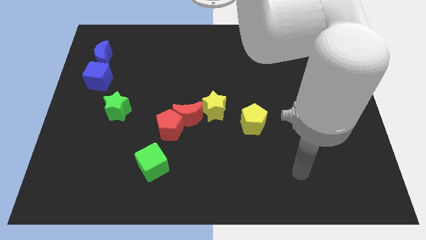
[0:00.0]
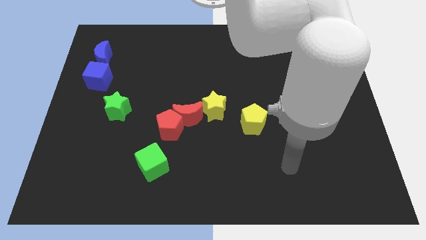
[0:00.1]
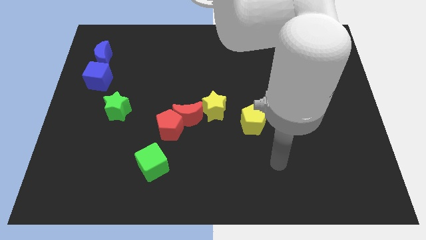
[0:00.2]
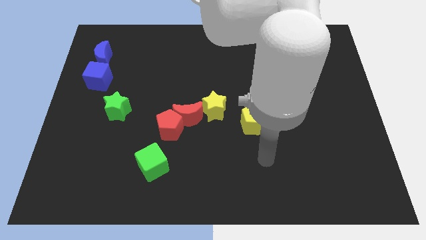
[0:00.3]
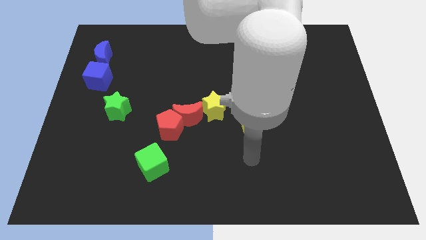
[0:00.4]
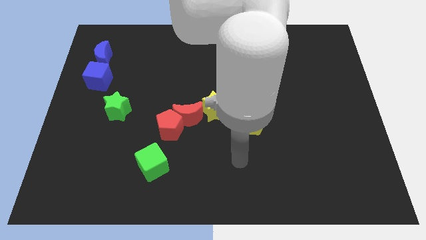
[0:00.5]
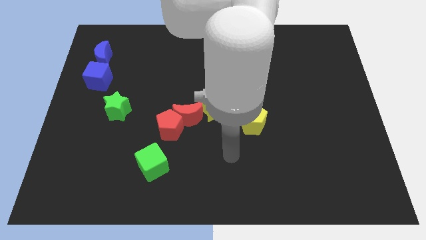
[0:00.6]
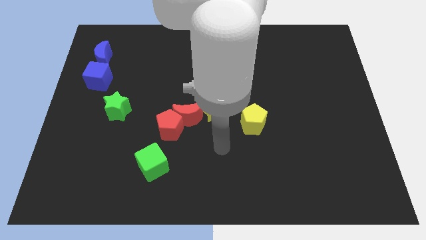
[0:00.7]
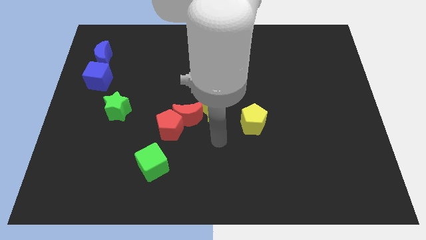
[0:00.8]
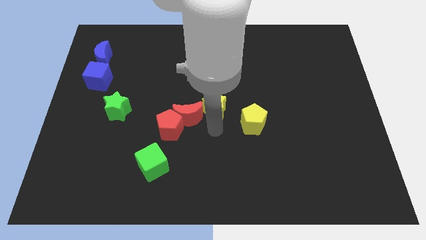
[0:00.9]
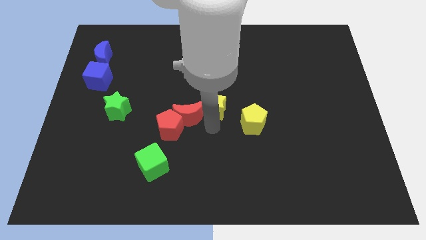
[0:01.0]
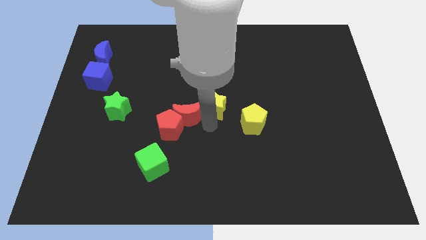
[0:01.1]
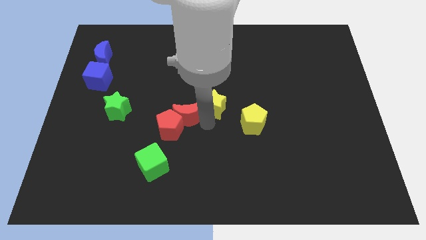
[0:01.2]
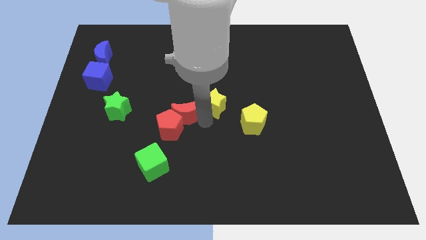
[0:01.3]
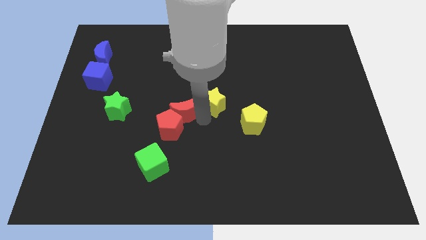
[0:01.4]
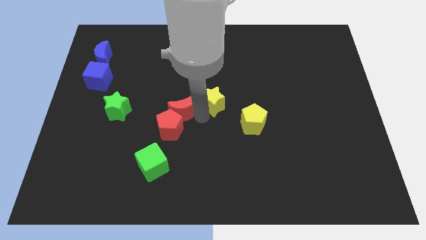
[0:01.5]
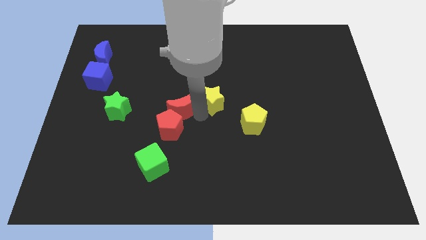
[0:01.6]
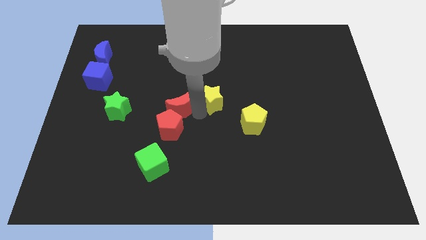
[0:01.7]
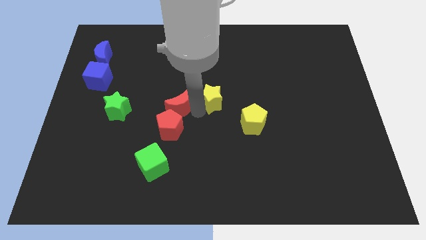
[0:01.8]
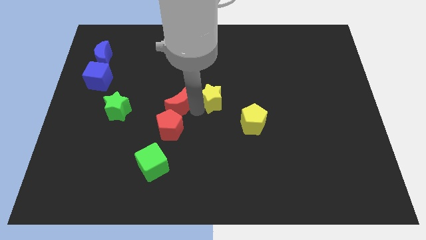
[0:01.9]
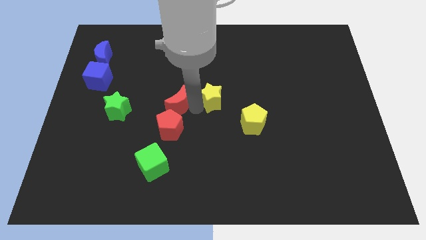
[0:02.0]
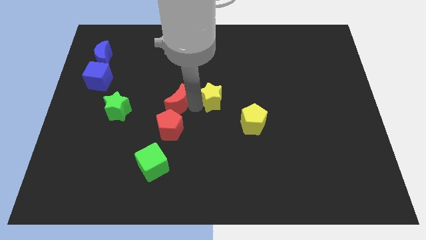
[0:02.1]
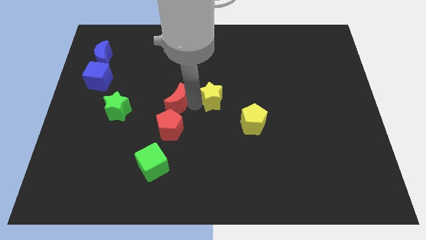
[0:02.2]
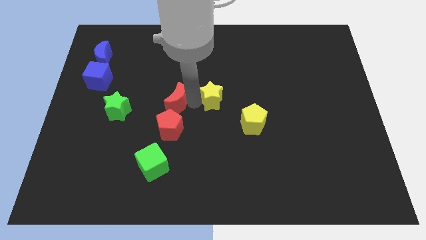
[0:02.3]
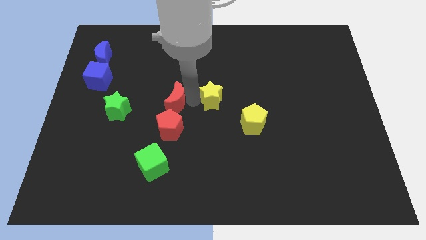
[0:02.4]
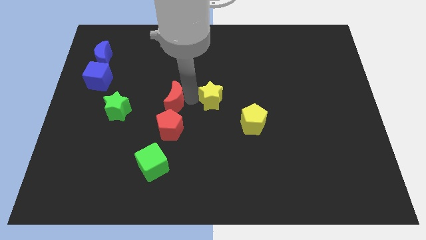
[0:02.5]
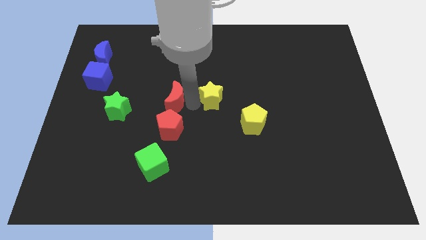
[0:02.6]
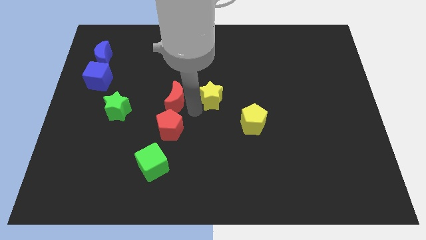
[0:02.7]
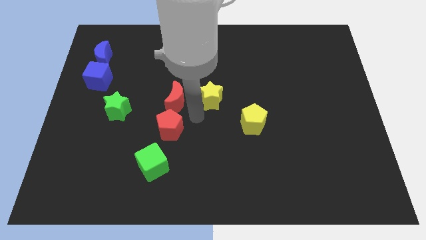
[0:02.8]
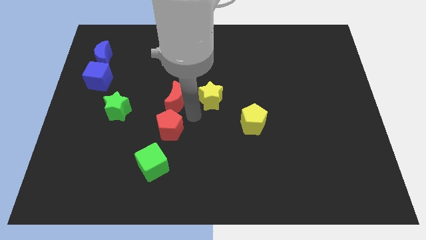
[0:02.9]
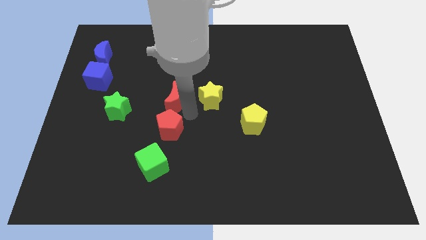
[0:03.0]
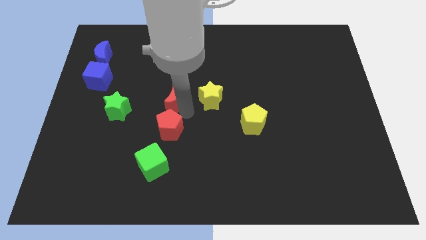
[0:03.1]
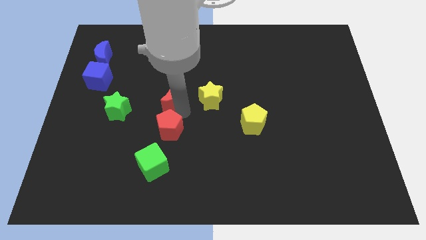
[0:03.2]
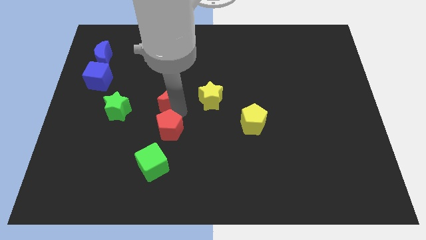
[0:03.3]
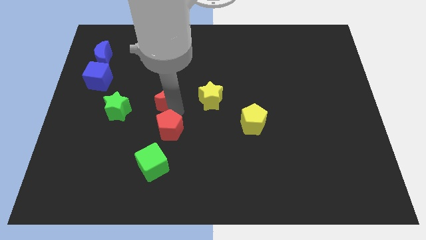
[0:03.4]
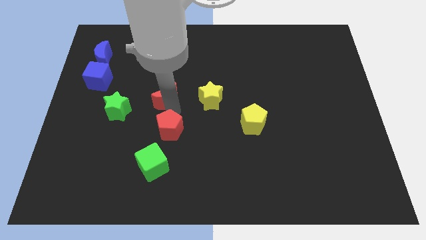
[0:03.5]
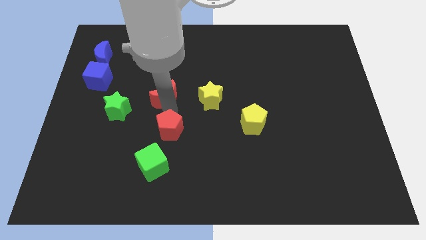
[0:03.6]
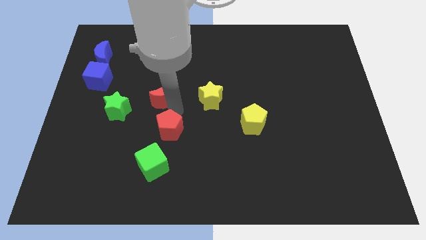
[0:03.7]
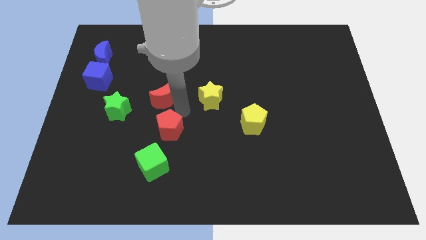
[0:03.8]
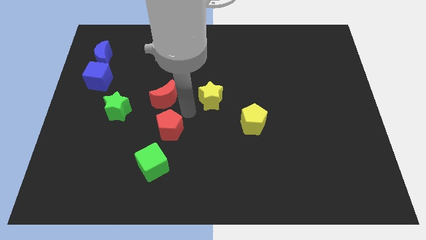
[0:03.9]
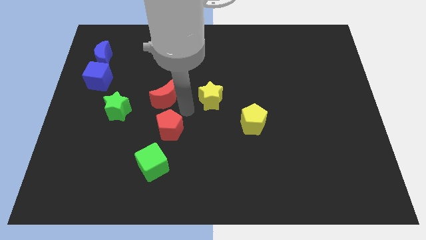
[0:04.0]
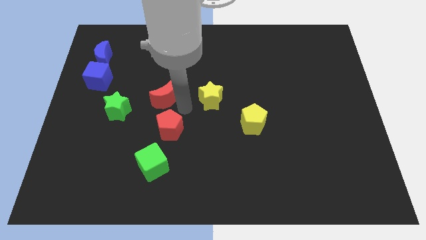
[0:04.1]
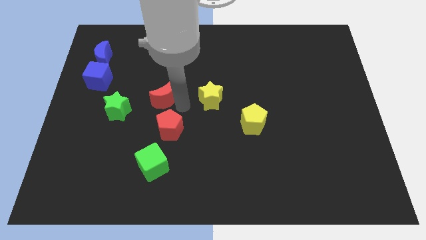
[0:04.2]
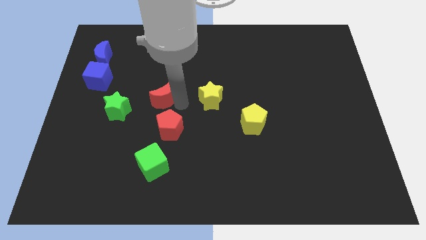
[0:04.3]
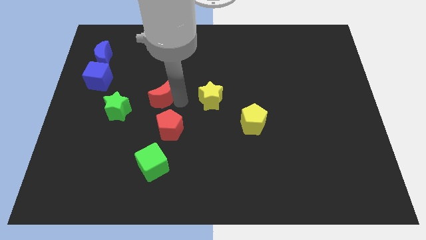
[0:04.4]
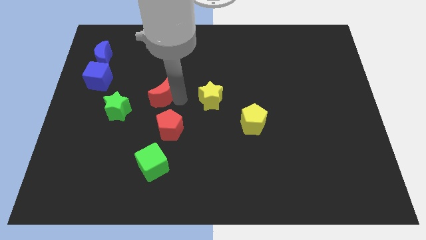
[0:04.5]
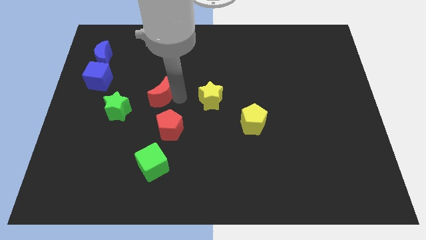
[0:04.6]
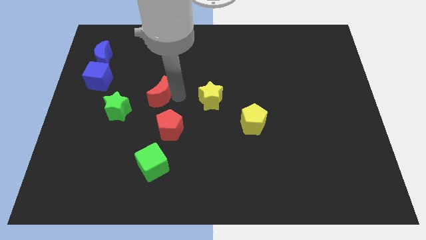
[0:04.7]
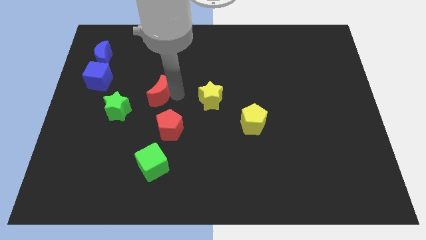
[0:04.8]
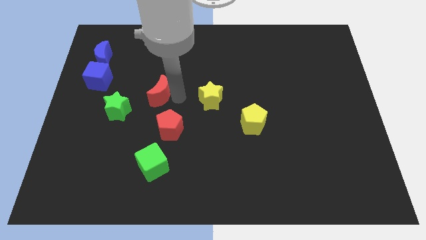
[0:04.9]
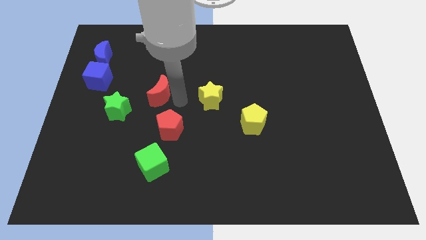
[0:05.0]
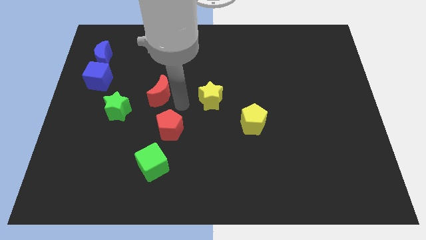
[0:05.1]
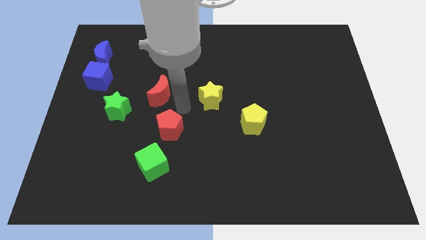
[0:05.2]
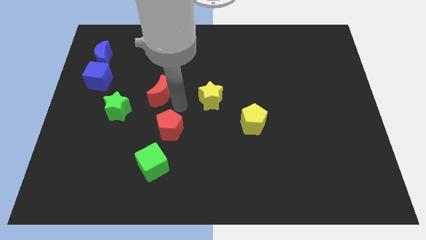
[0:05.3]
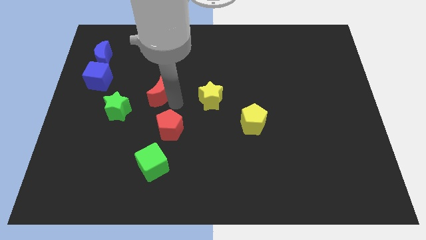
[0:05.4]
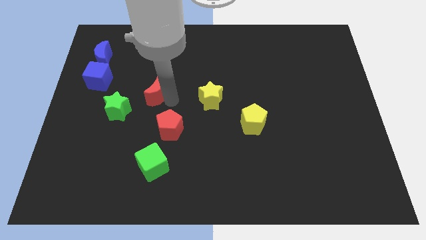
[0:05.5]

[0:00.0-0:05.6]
move the red moon away from the red pentagon and yellow star

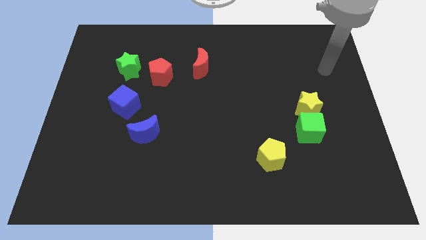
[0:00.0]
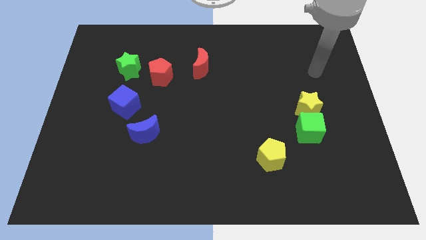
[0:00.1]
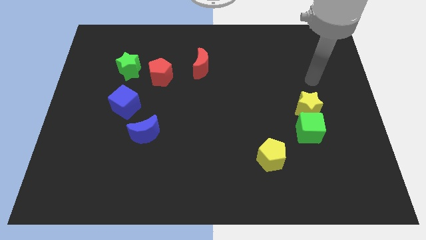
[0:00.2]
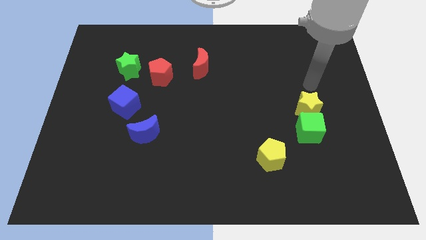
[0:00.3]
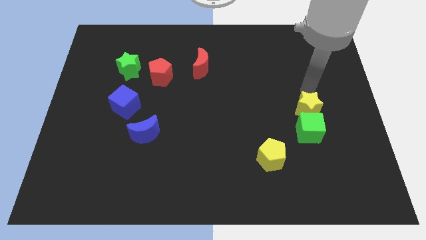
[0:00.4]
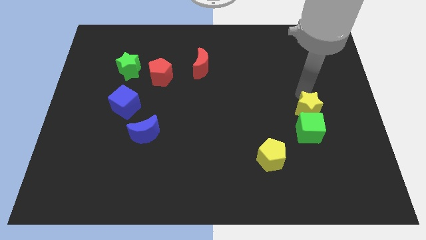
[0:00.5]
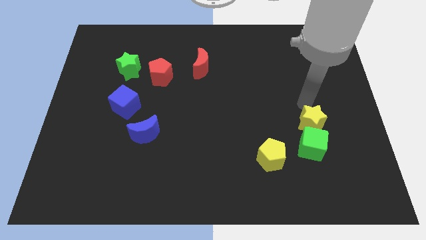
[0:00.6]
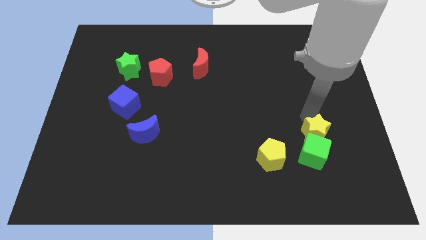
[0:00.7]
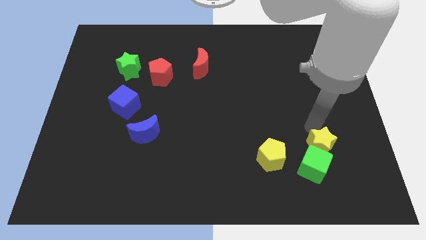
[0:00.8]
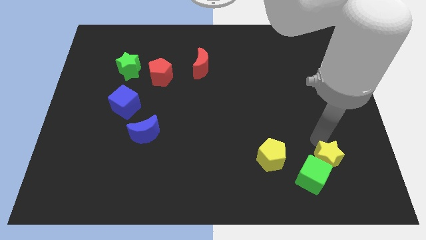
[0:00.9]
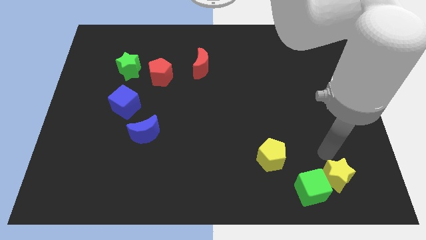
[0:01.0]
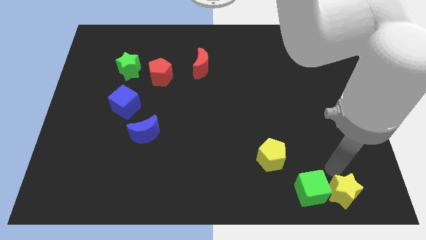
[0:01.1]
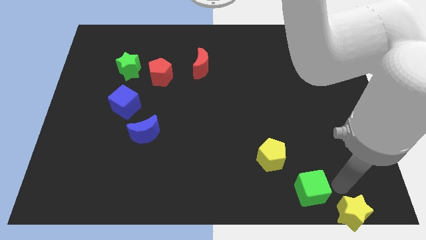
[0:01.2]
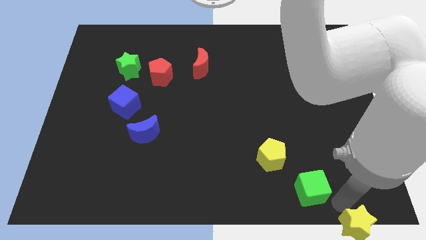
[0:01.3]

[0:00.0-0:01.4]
move the green cube away from the yellow star

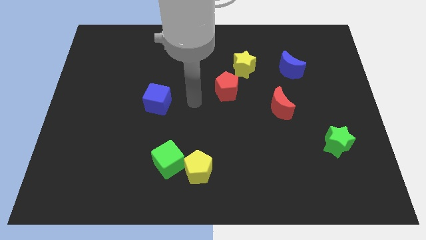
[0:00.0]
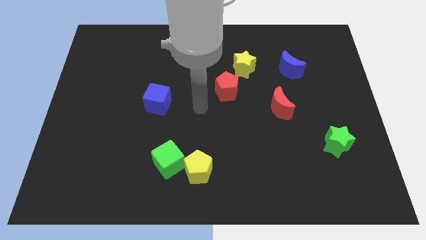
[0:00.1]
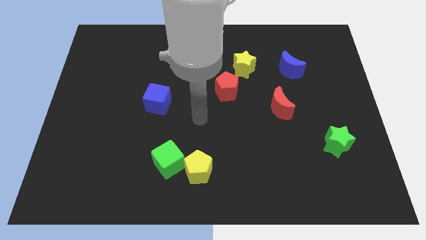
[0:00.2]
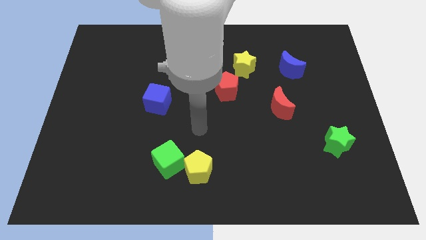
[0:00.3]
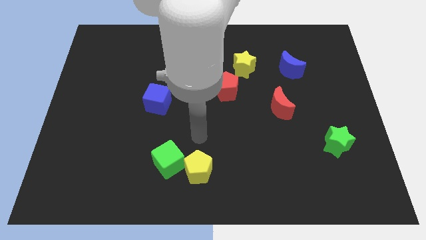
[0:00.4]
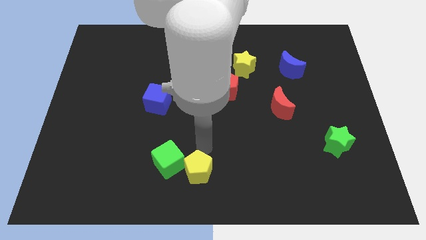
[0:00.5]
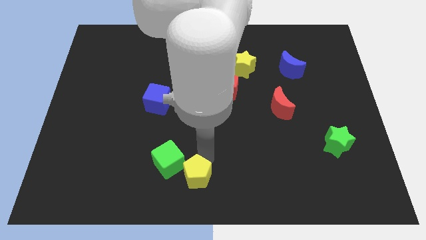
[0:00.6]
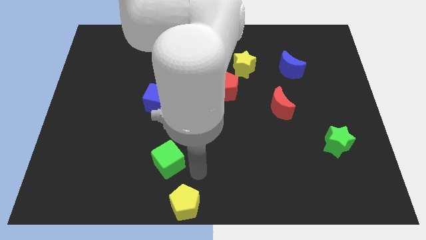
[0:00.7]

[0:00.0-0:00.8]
move the green cube away from the yellow pentagon

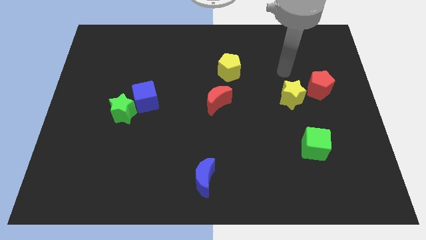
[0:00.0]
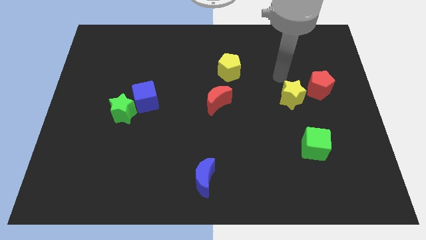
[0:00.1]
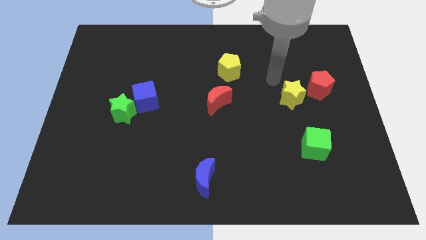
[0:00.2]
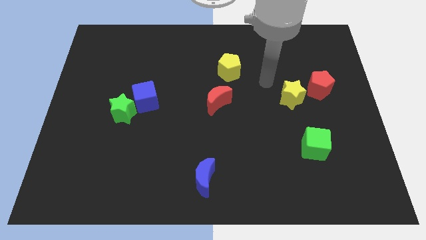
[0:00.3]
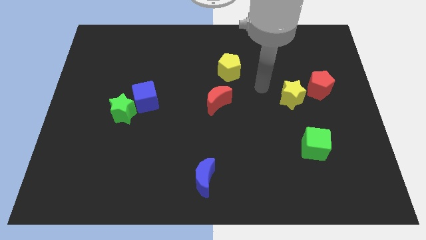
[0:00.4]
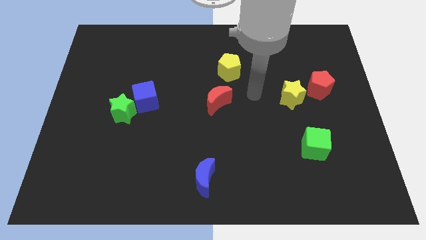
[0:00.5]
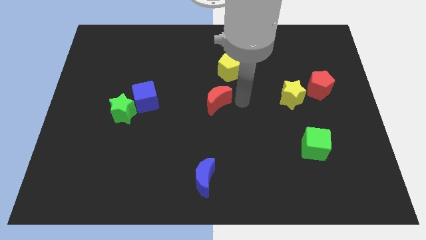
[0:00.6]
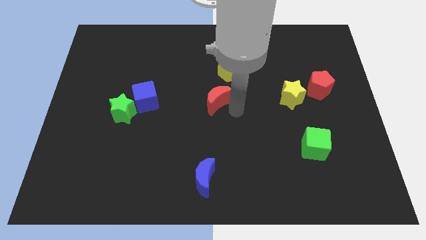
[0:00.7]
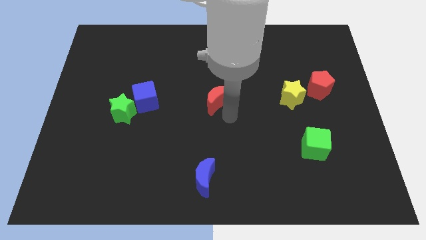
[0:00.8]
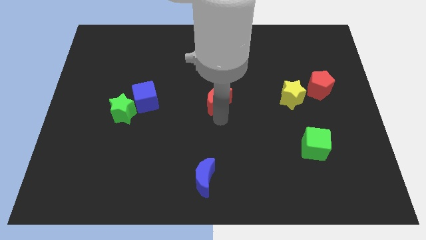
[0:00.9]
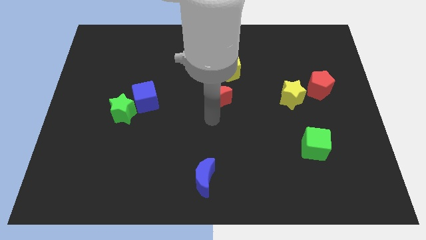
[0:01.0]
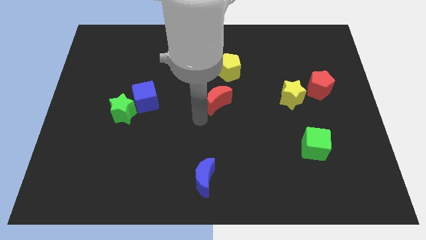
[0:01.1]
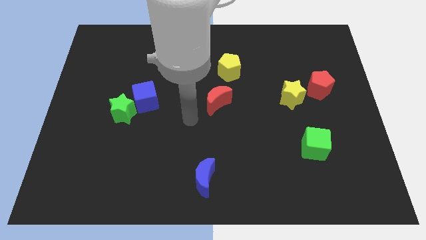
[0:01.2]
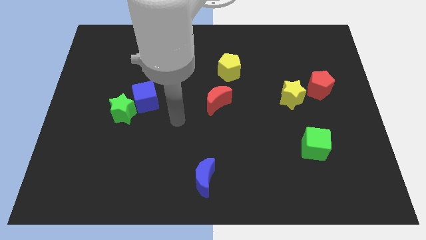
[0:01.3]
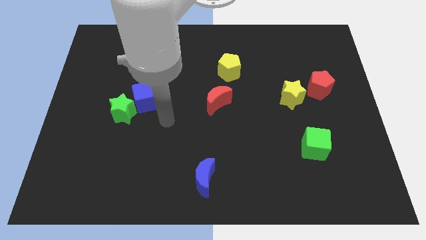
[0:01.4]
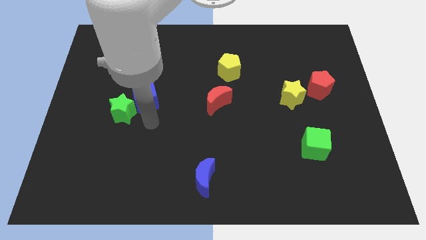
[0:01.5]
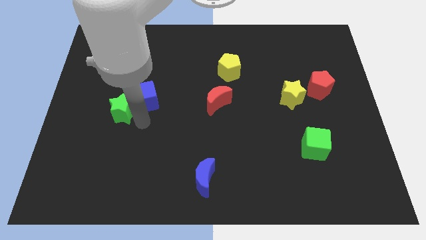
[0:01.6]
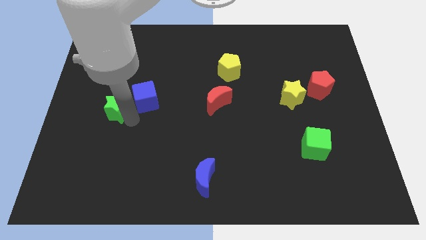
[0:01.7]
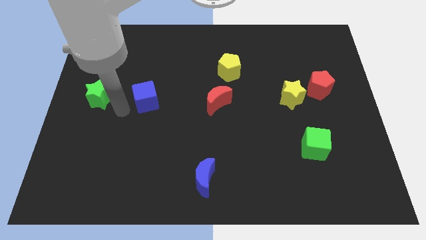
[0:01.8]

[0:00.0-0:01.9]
pull the blue cube apart from the green star
